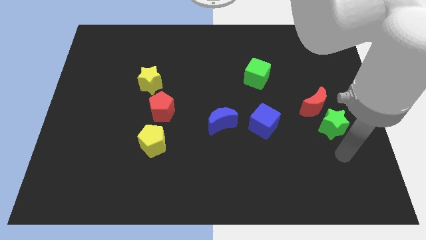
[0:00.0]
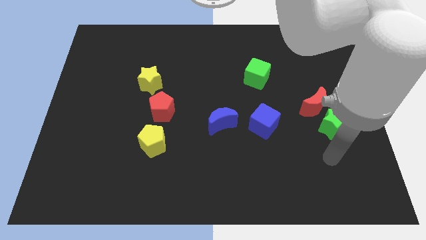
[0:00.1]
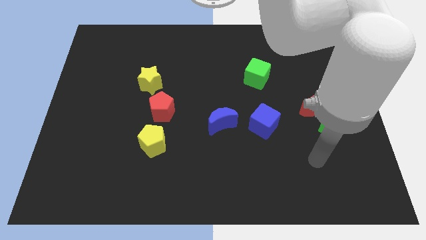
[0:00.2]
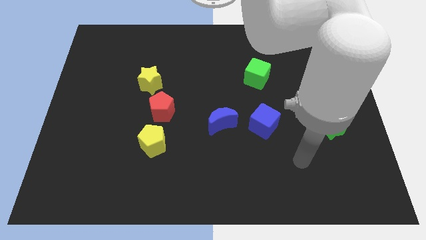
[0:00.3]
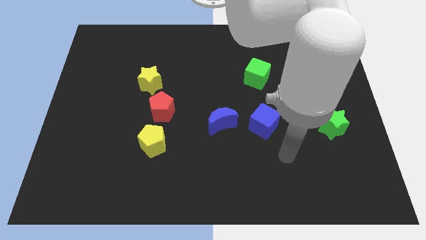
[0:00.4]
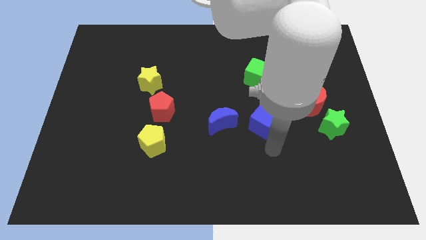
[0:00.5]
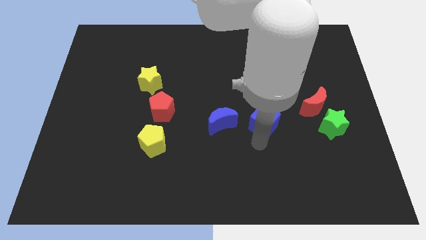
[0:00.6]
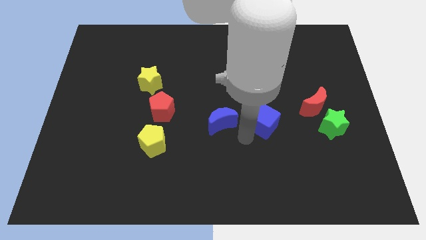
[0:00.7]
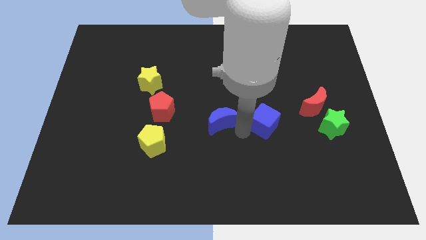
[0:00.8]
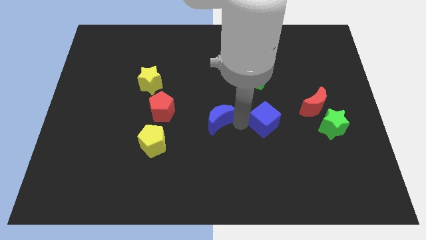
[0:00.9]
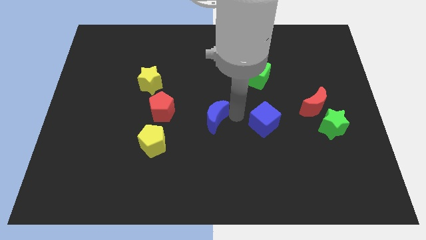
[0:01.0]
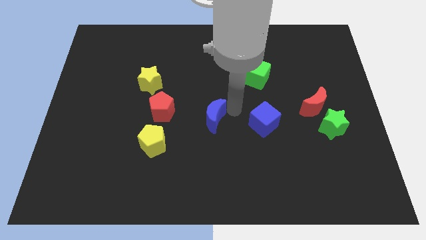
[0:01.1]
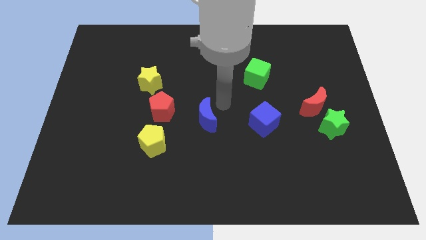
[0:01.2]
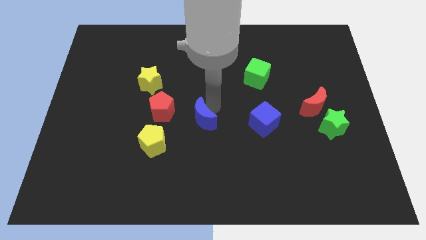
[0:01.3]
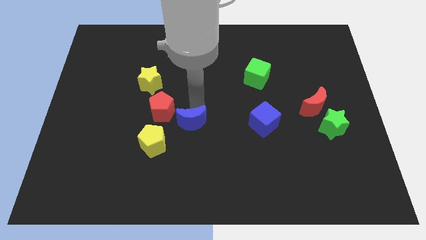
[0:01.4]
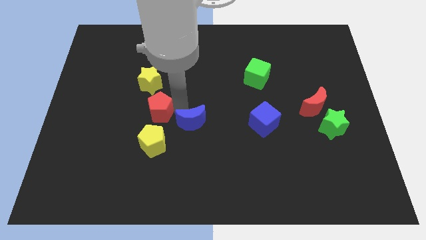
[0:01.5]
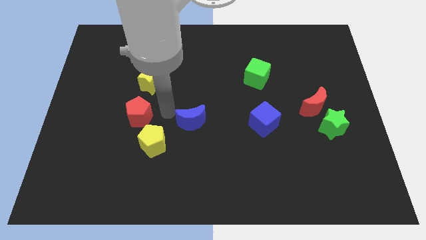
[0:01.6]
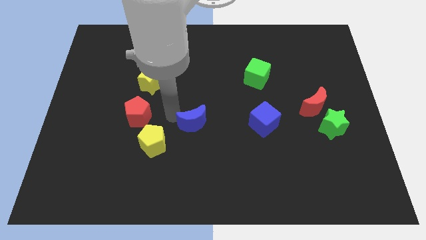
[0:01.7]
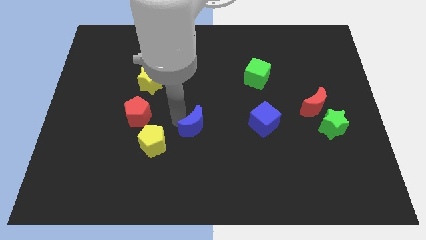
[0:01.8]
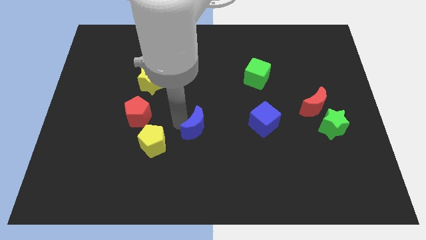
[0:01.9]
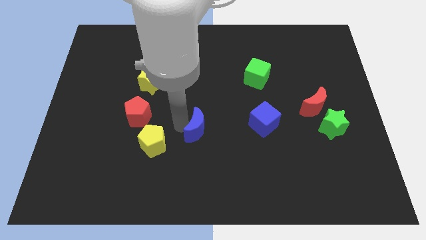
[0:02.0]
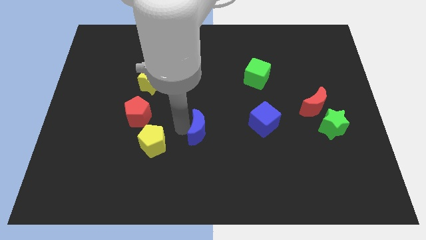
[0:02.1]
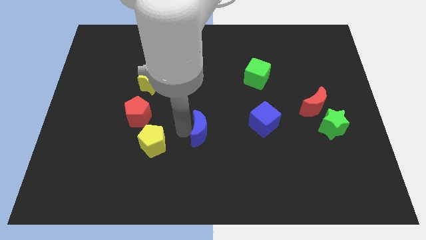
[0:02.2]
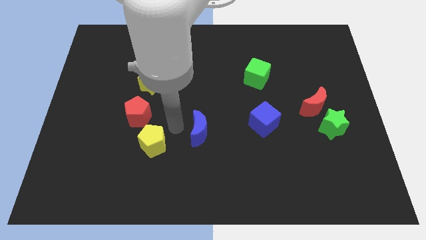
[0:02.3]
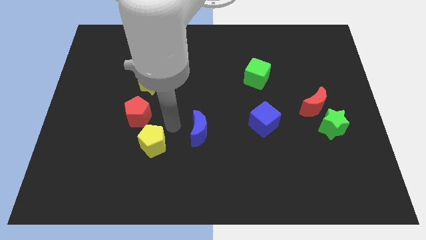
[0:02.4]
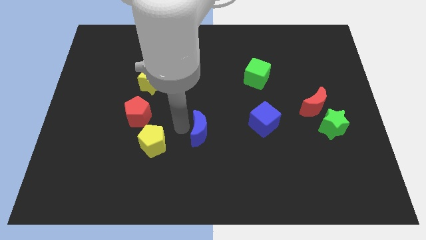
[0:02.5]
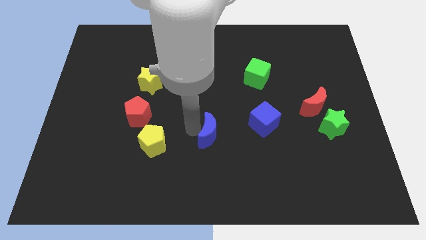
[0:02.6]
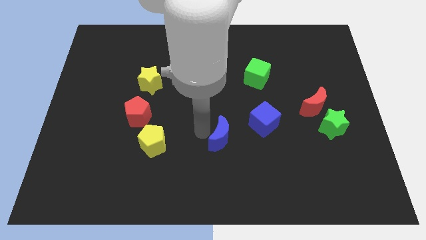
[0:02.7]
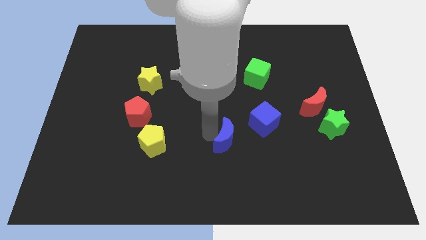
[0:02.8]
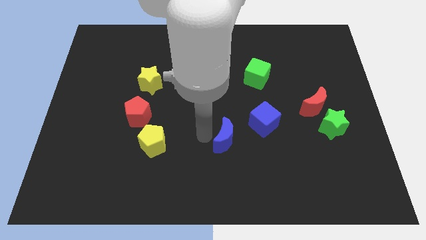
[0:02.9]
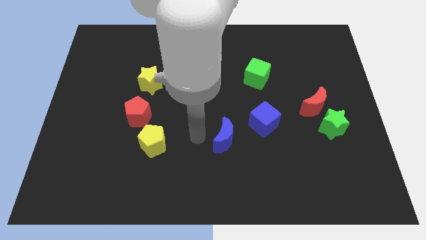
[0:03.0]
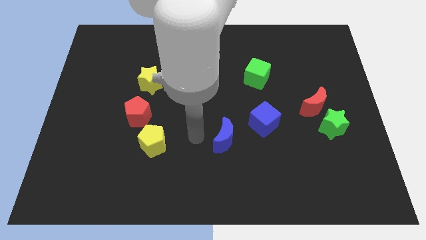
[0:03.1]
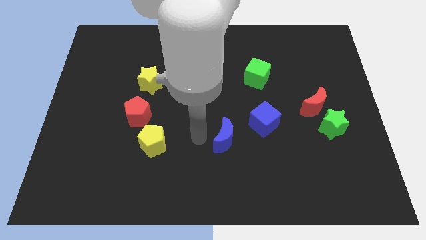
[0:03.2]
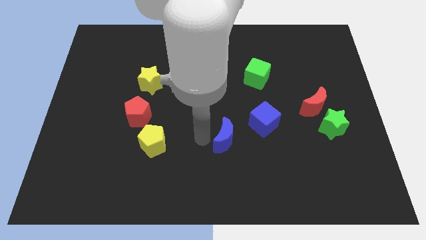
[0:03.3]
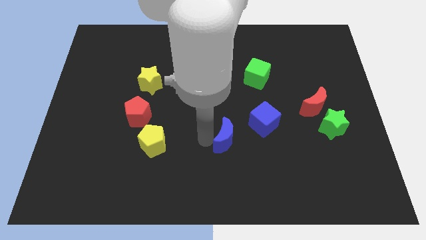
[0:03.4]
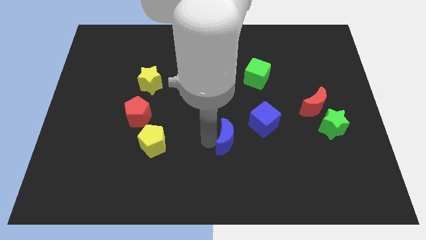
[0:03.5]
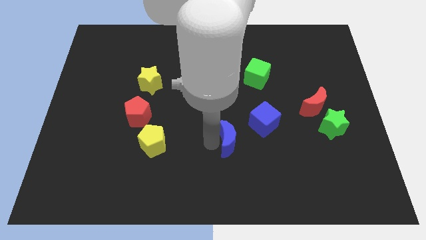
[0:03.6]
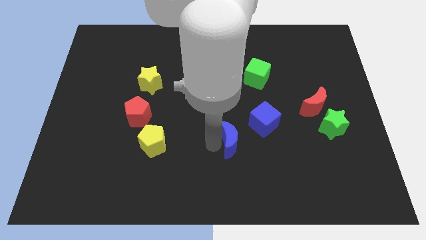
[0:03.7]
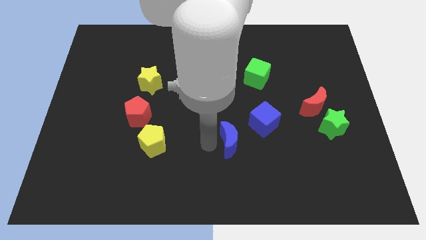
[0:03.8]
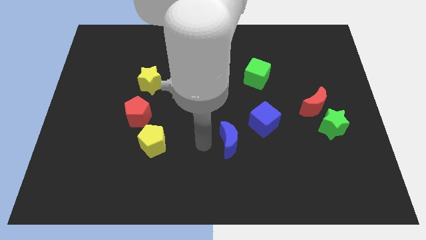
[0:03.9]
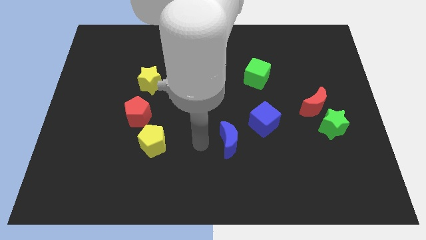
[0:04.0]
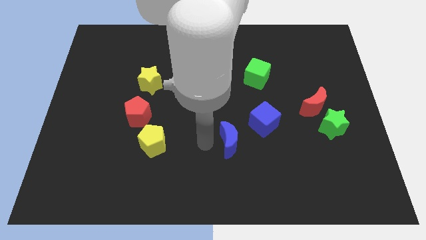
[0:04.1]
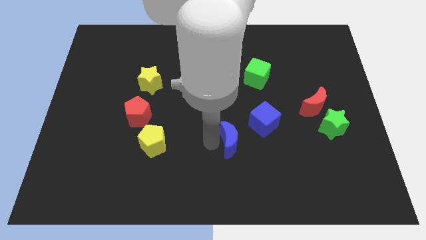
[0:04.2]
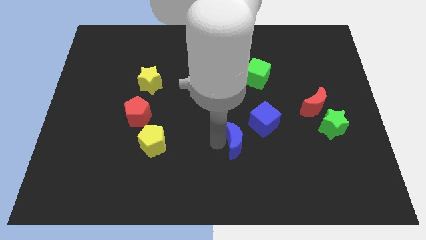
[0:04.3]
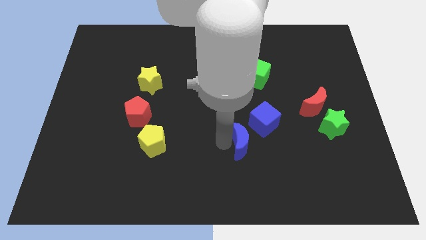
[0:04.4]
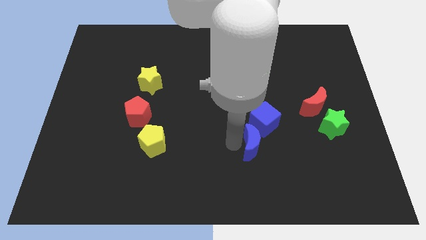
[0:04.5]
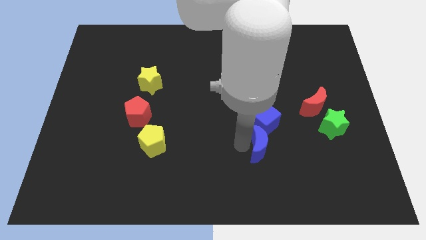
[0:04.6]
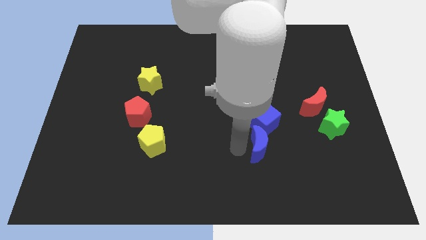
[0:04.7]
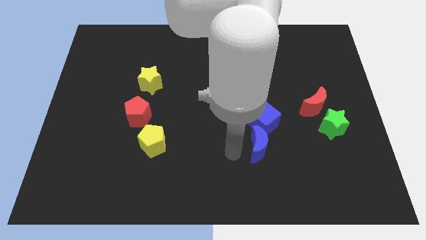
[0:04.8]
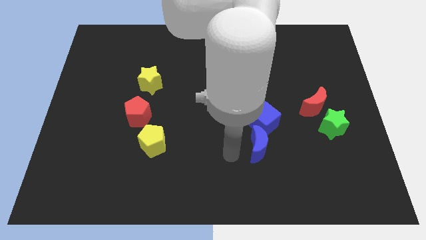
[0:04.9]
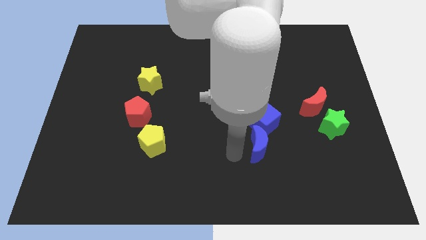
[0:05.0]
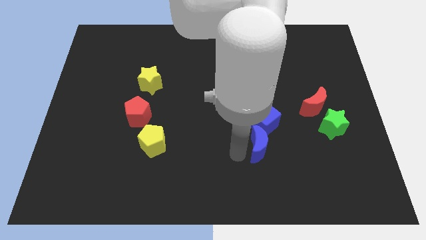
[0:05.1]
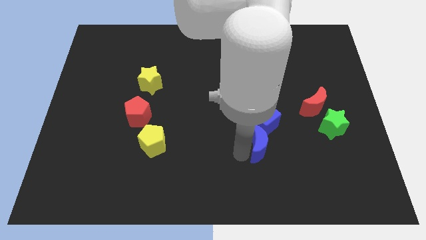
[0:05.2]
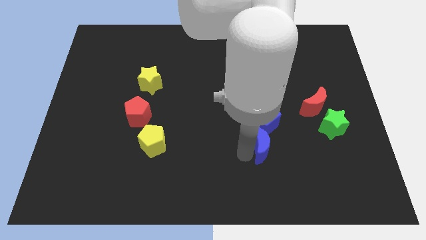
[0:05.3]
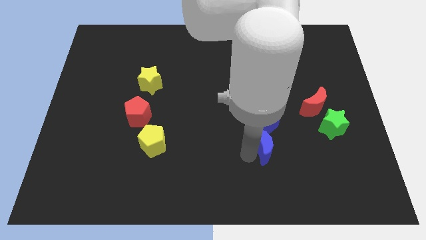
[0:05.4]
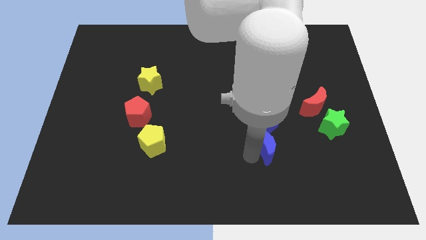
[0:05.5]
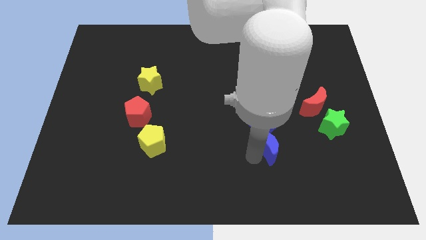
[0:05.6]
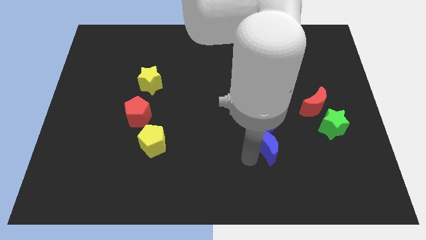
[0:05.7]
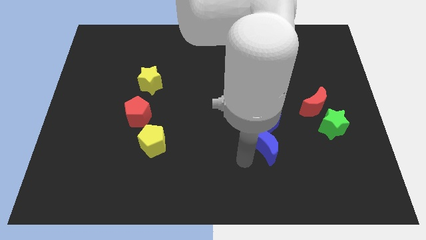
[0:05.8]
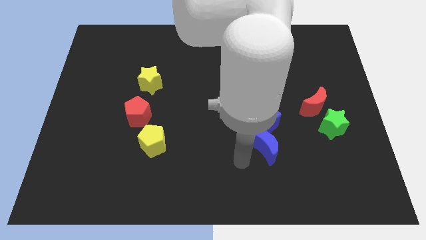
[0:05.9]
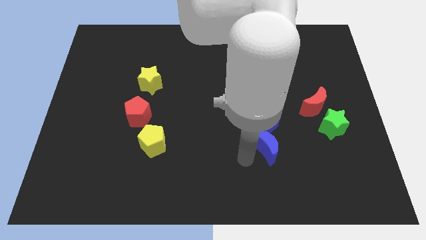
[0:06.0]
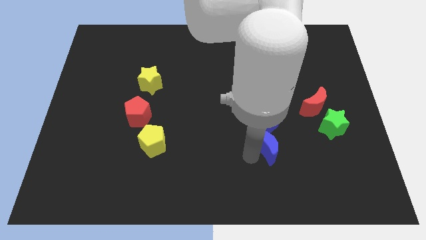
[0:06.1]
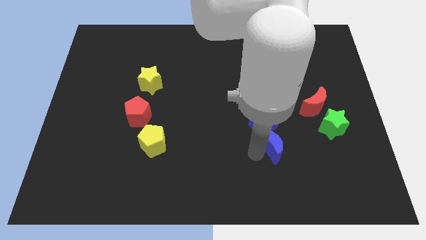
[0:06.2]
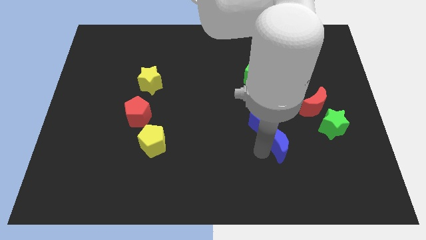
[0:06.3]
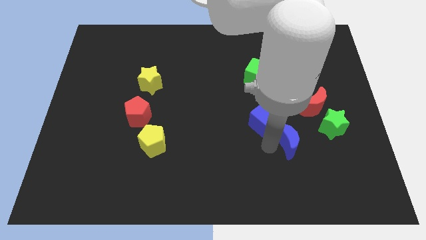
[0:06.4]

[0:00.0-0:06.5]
put the blue moon diagonally down and to the left of the green star
